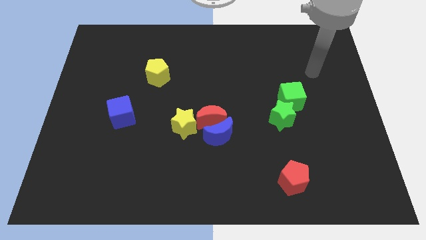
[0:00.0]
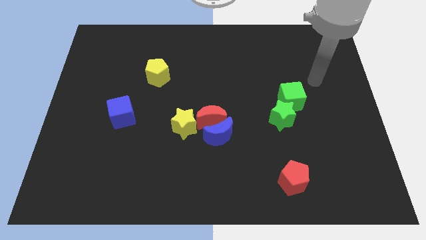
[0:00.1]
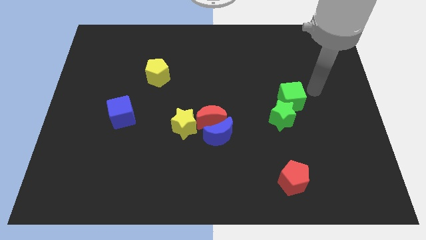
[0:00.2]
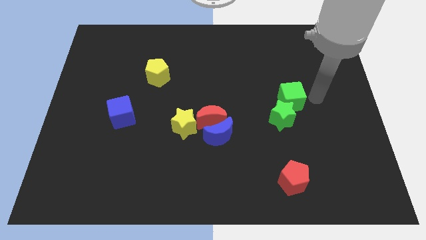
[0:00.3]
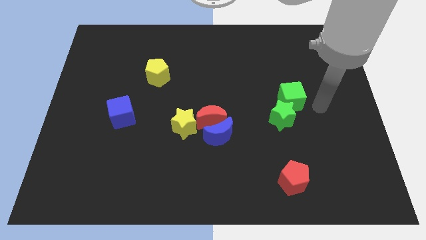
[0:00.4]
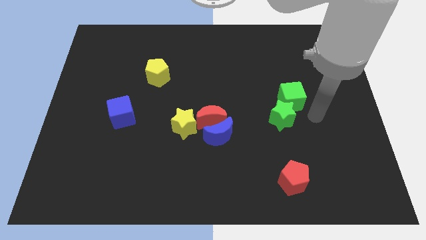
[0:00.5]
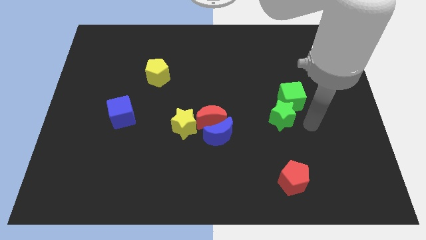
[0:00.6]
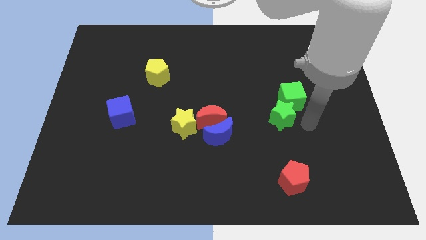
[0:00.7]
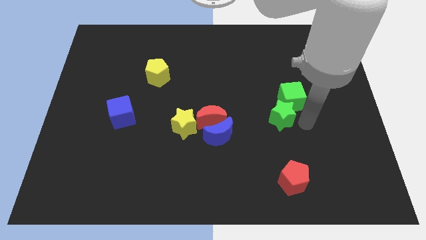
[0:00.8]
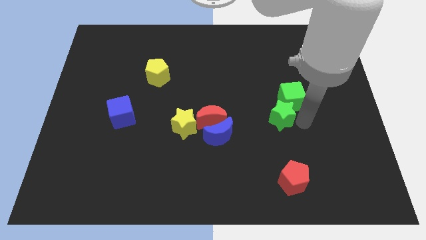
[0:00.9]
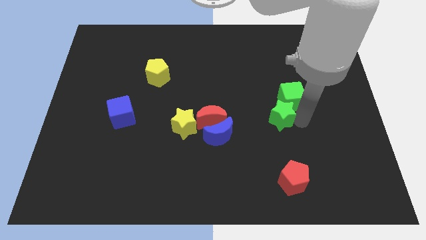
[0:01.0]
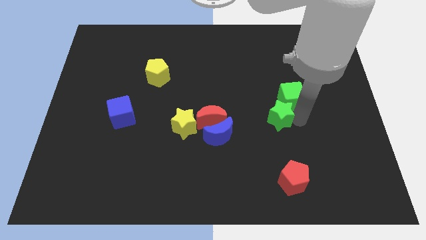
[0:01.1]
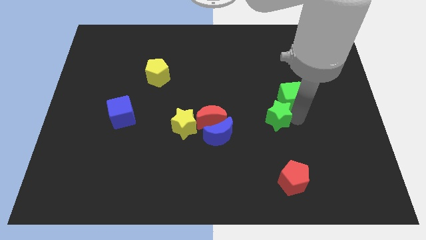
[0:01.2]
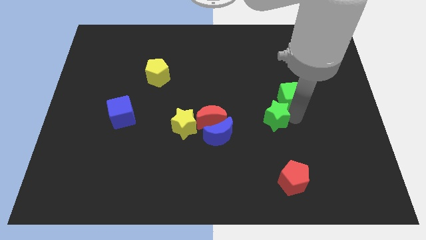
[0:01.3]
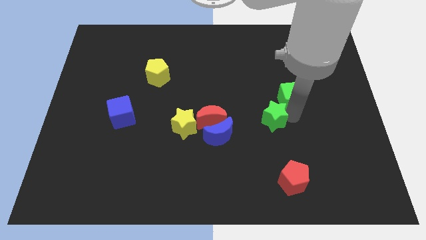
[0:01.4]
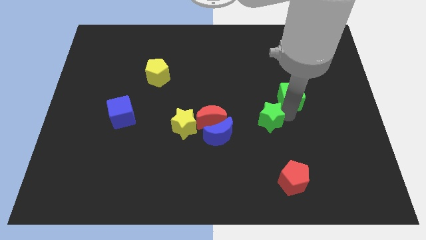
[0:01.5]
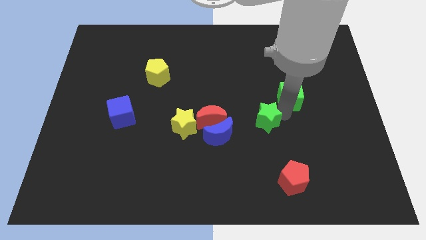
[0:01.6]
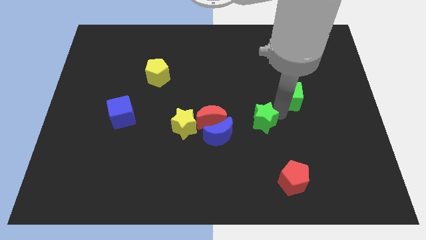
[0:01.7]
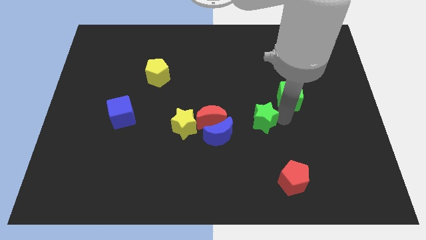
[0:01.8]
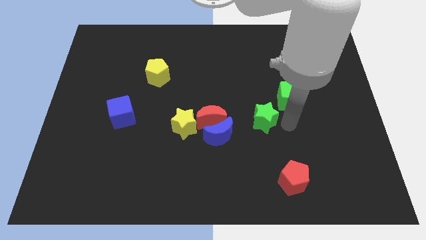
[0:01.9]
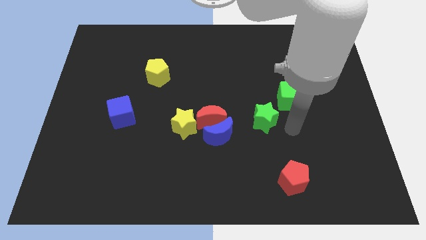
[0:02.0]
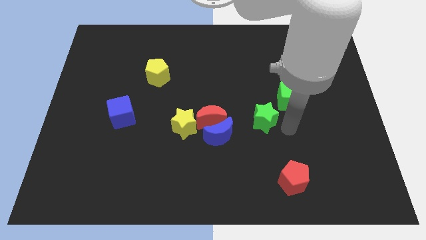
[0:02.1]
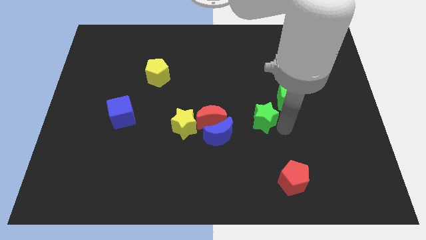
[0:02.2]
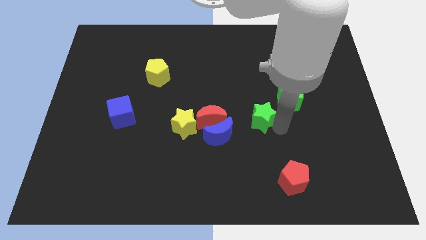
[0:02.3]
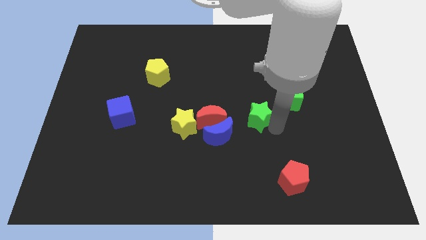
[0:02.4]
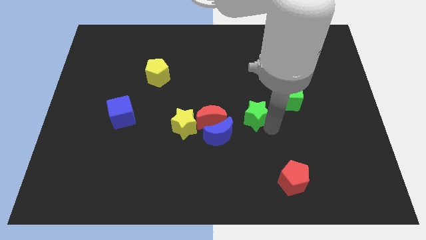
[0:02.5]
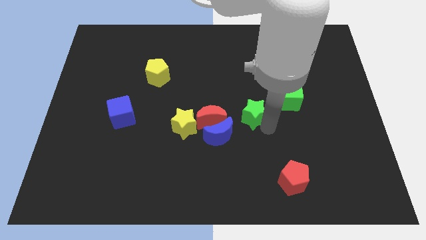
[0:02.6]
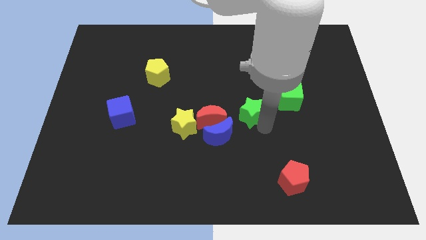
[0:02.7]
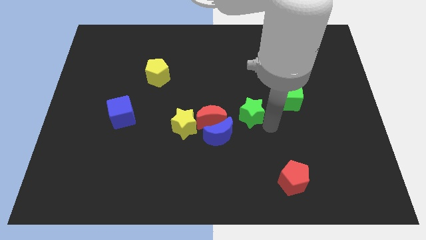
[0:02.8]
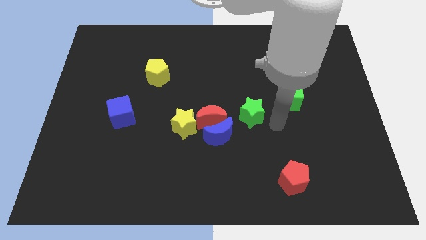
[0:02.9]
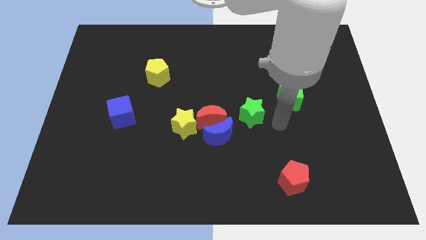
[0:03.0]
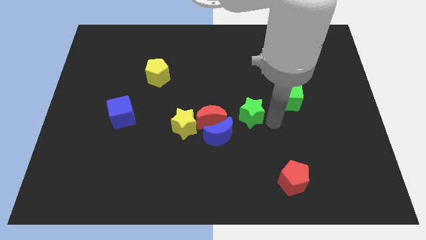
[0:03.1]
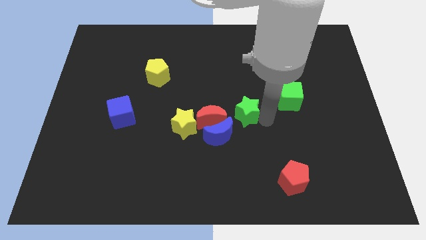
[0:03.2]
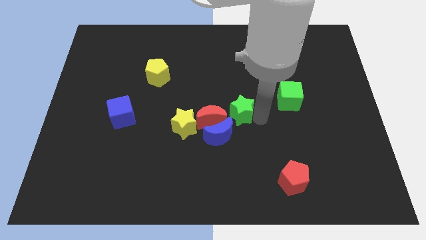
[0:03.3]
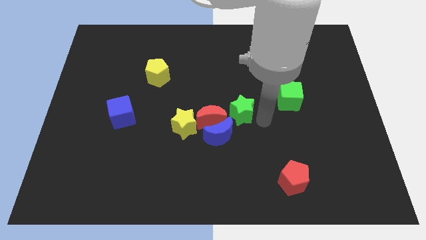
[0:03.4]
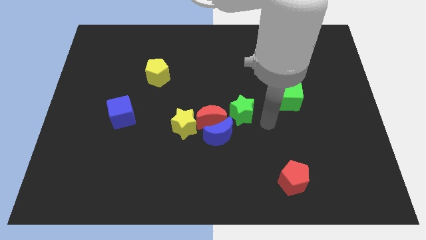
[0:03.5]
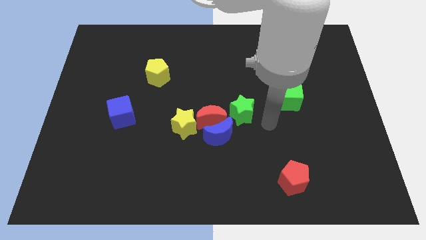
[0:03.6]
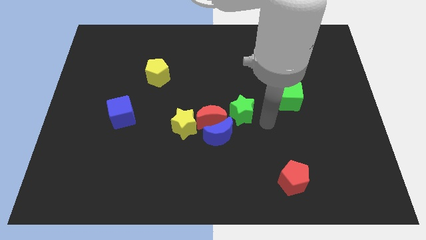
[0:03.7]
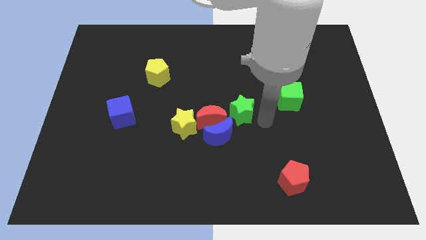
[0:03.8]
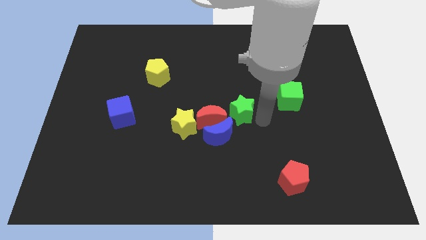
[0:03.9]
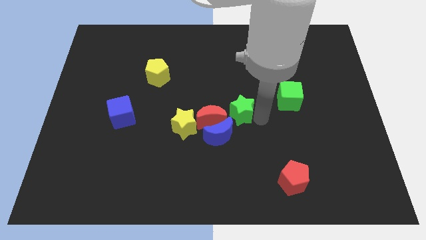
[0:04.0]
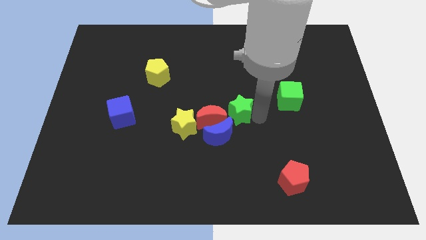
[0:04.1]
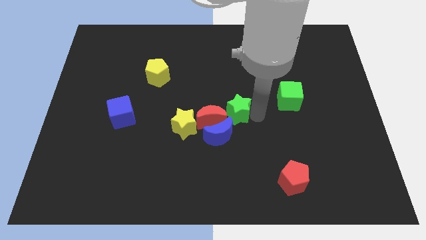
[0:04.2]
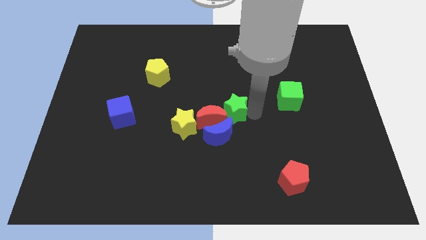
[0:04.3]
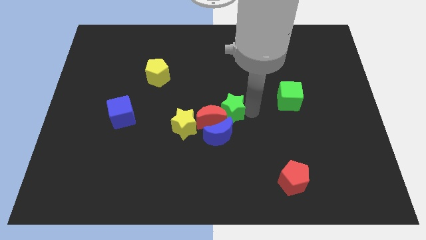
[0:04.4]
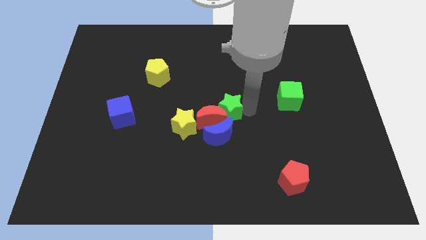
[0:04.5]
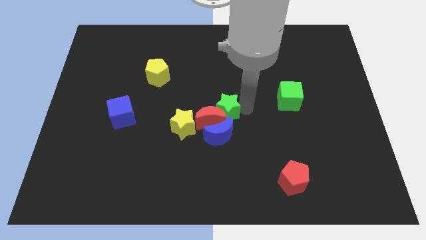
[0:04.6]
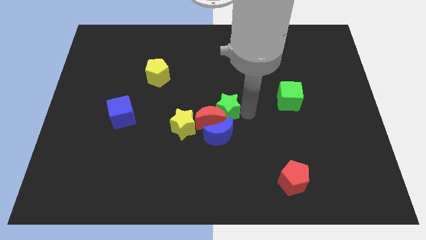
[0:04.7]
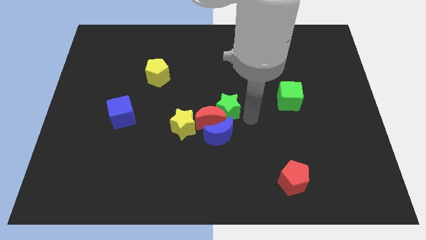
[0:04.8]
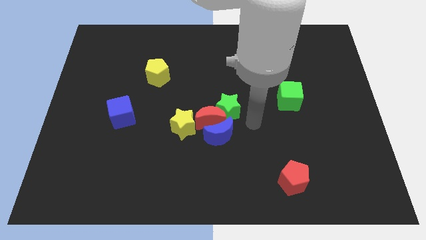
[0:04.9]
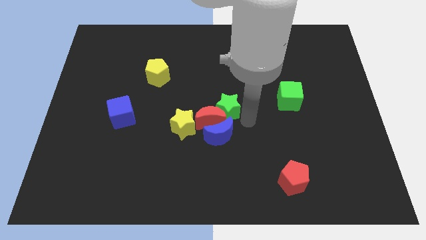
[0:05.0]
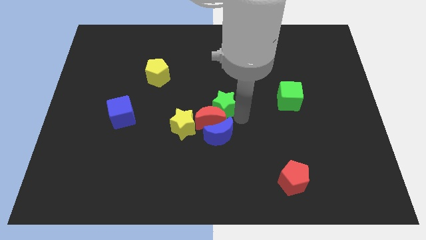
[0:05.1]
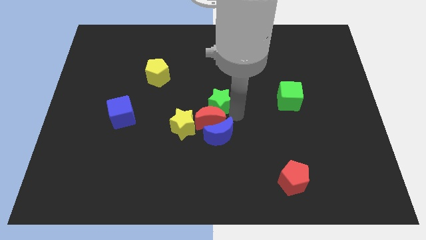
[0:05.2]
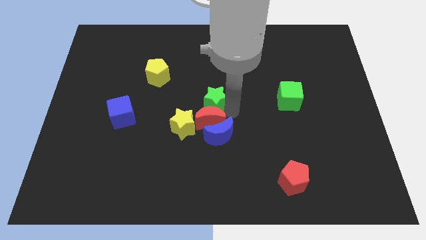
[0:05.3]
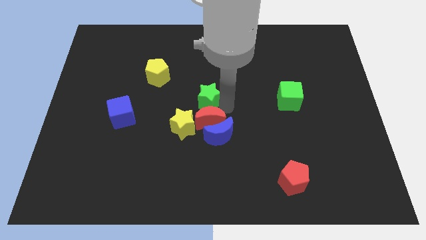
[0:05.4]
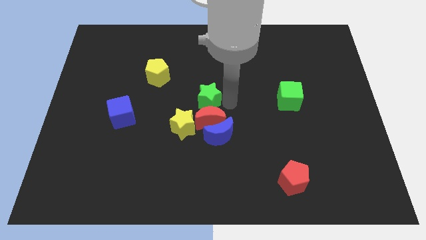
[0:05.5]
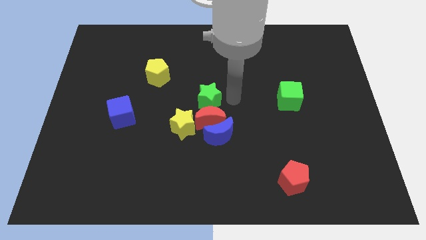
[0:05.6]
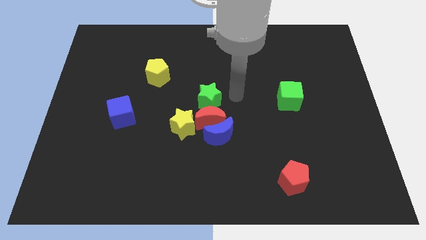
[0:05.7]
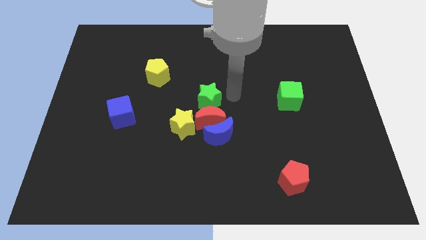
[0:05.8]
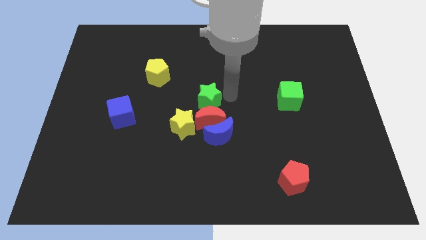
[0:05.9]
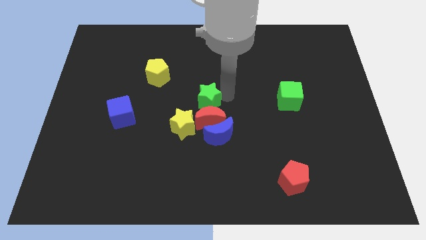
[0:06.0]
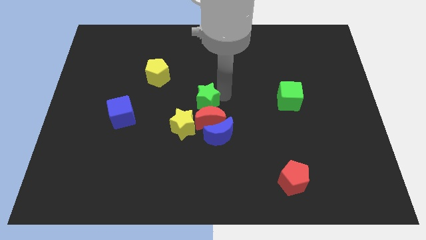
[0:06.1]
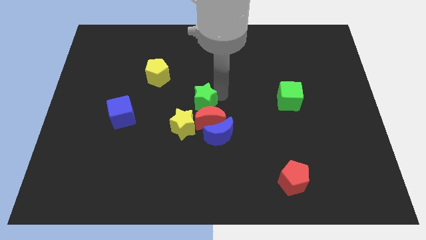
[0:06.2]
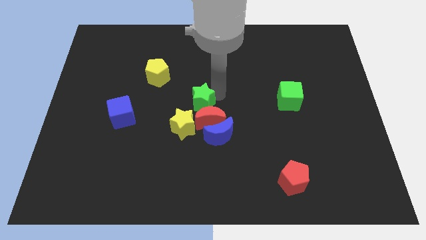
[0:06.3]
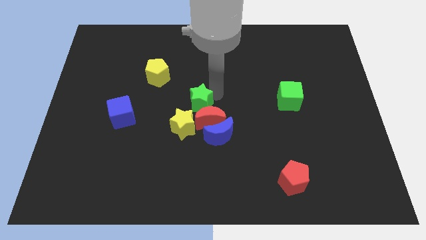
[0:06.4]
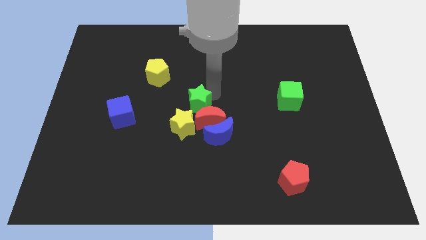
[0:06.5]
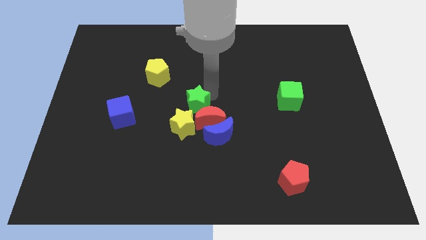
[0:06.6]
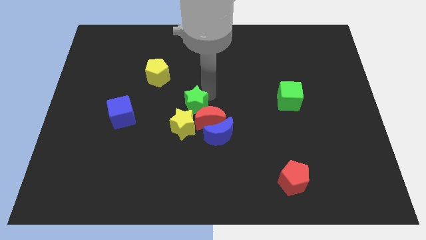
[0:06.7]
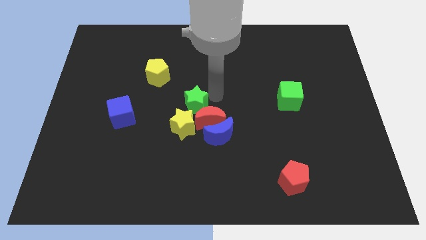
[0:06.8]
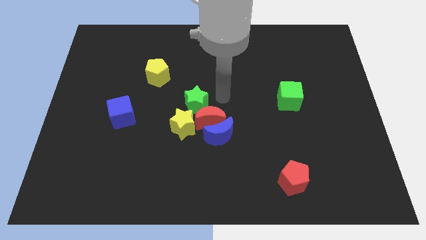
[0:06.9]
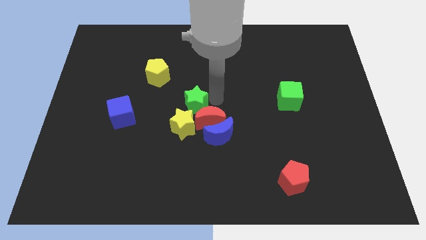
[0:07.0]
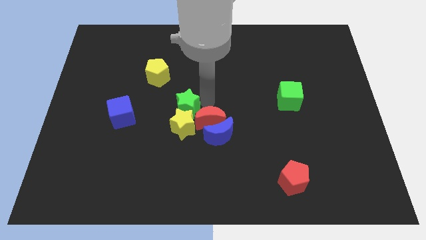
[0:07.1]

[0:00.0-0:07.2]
slide the green star left

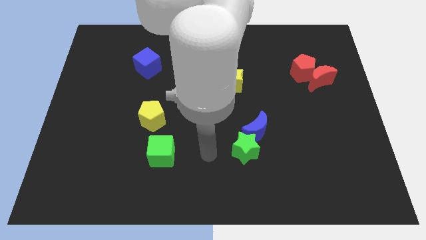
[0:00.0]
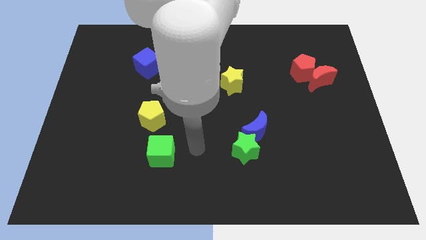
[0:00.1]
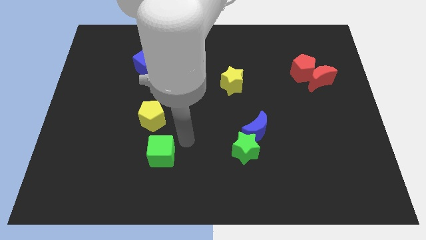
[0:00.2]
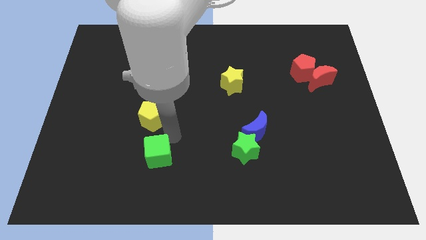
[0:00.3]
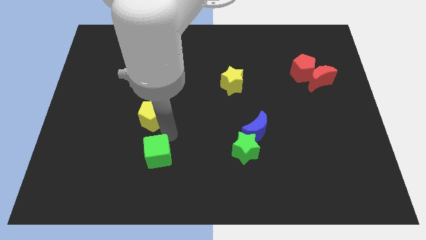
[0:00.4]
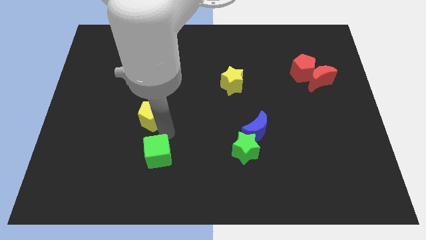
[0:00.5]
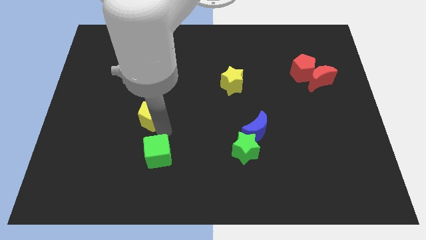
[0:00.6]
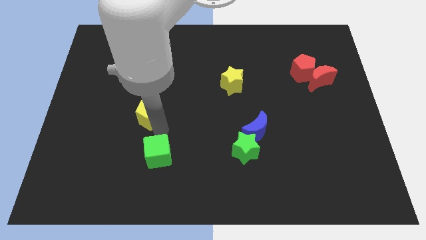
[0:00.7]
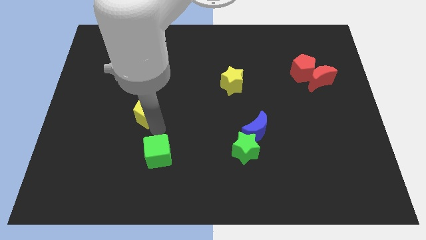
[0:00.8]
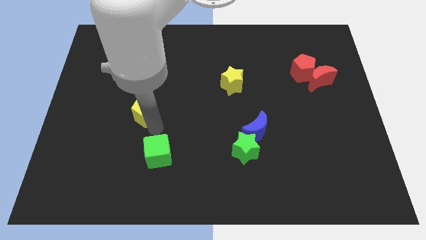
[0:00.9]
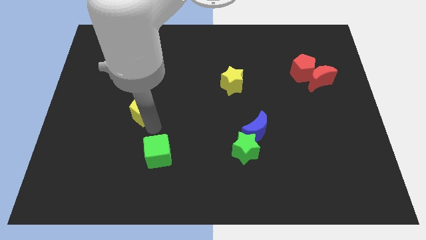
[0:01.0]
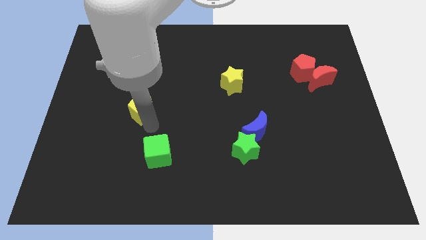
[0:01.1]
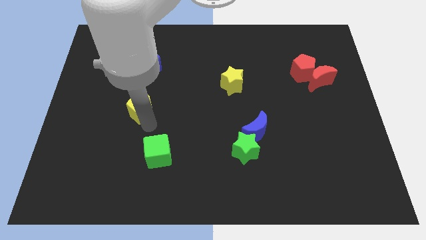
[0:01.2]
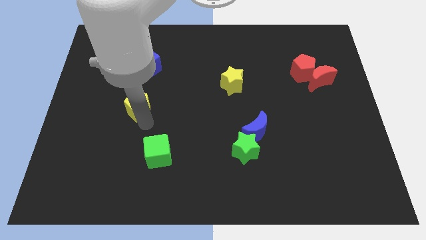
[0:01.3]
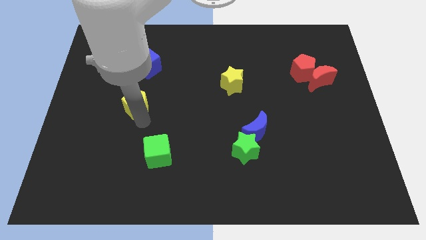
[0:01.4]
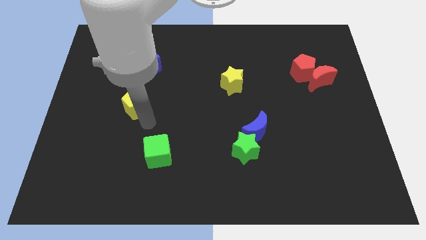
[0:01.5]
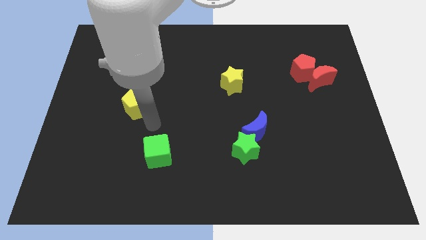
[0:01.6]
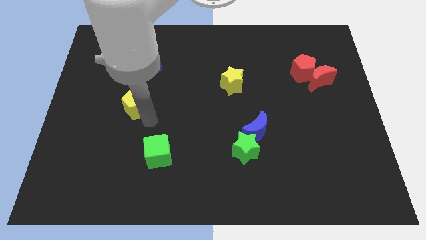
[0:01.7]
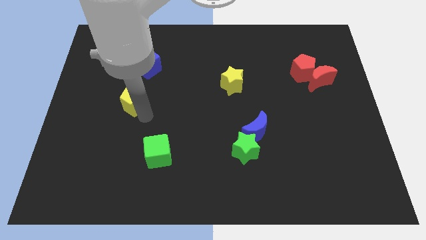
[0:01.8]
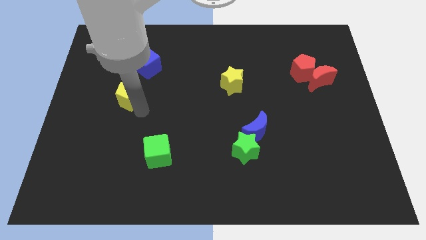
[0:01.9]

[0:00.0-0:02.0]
slightly push the yellow pentagon diagonally up and left
